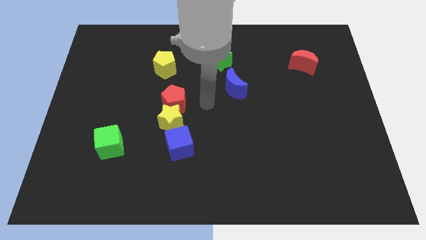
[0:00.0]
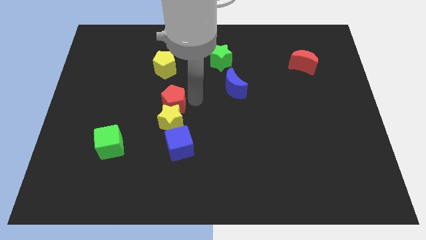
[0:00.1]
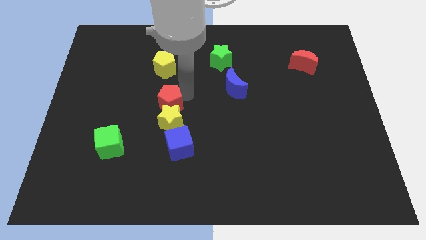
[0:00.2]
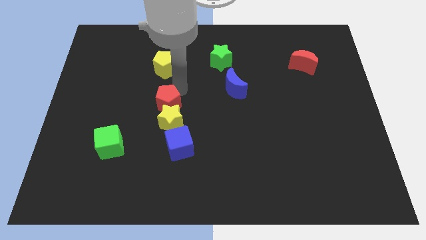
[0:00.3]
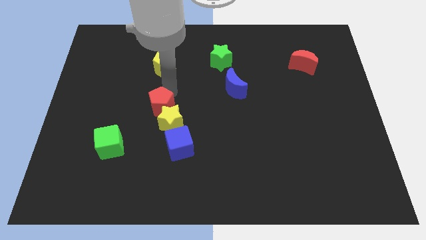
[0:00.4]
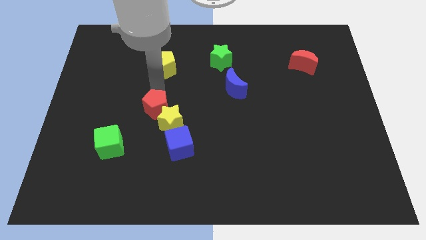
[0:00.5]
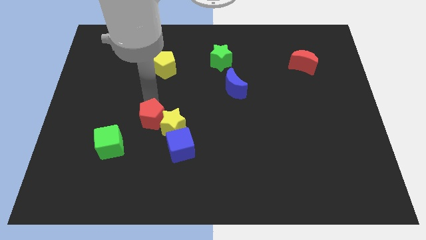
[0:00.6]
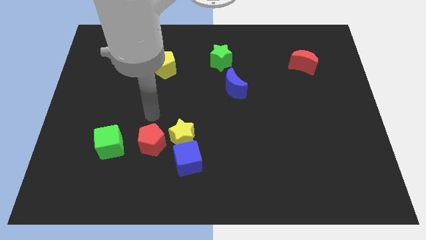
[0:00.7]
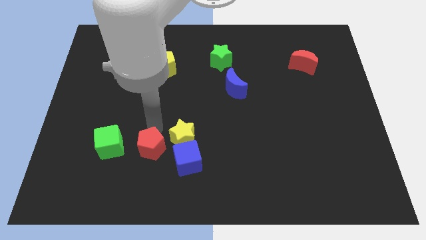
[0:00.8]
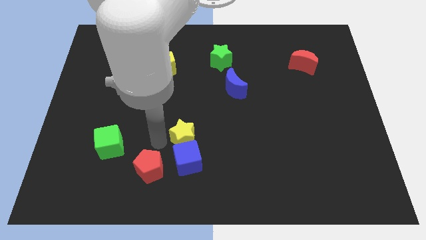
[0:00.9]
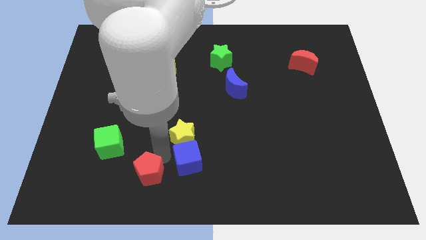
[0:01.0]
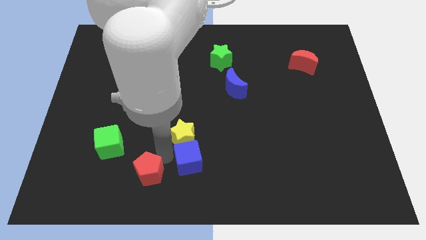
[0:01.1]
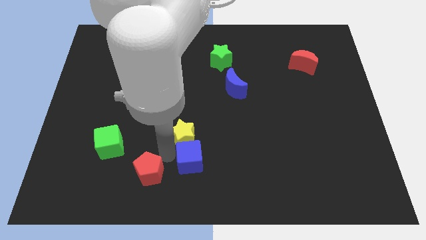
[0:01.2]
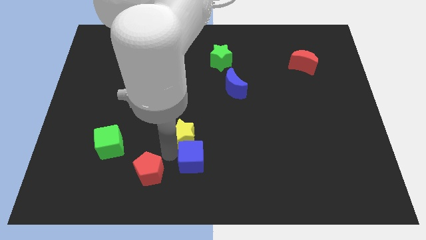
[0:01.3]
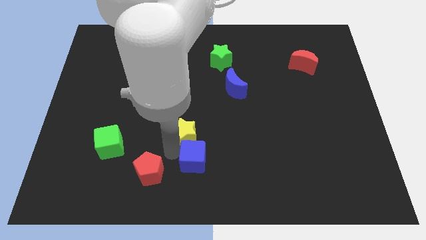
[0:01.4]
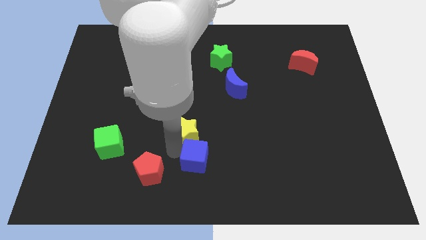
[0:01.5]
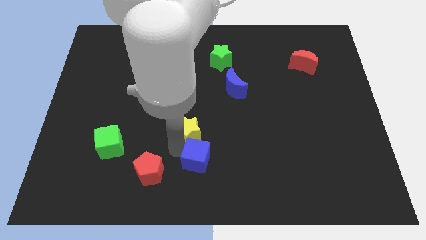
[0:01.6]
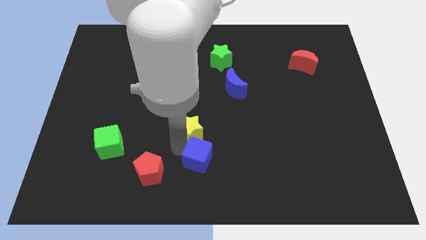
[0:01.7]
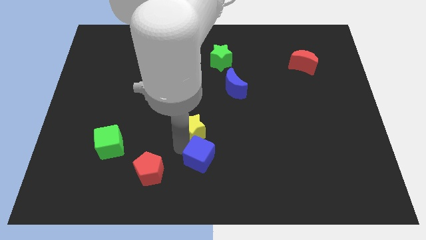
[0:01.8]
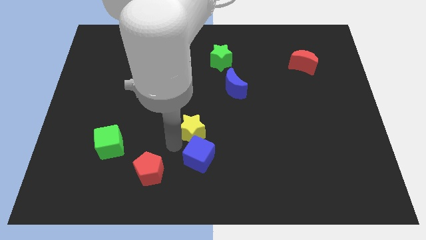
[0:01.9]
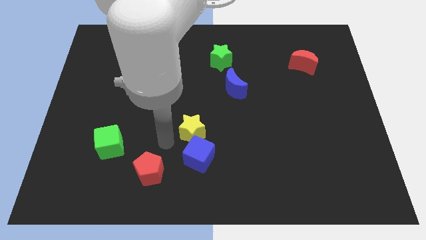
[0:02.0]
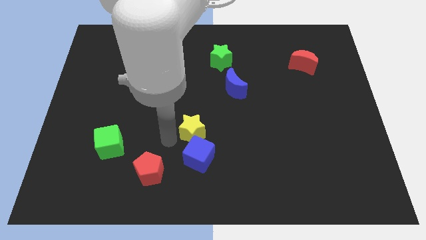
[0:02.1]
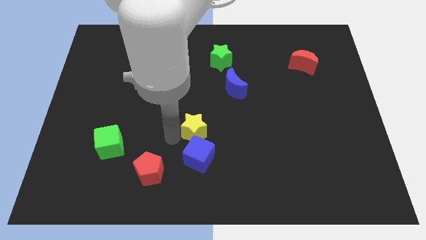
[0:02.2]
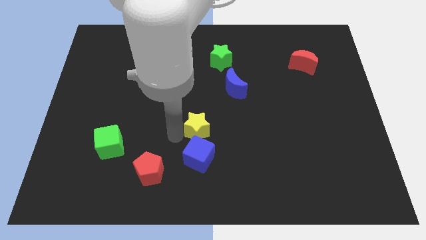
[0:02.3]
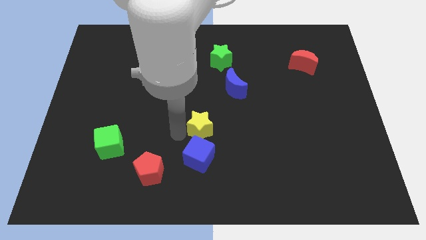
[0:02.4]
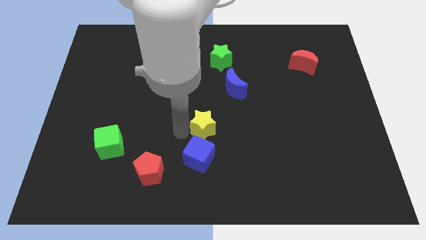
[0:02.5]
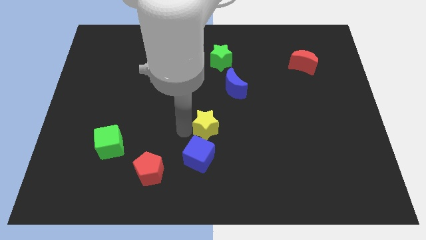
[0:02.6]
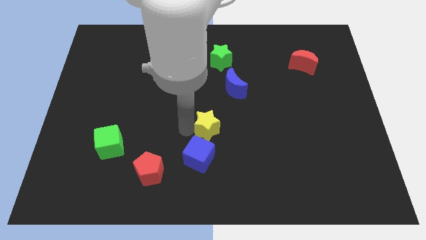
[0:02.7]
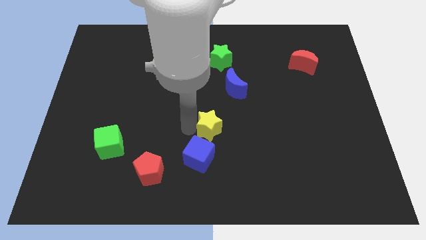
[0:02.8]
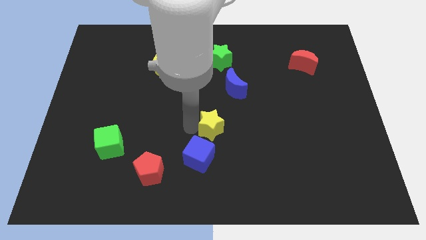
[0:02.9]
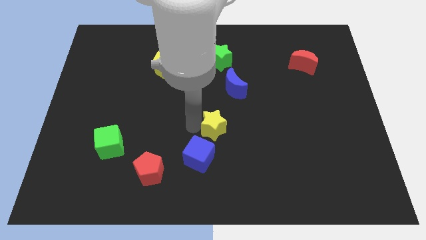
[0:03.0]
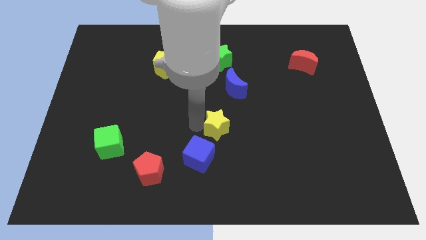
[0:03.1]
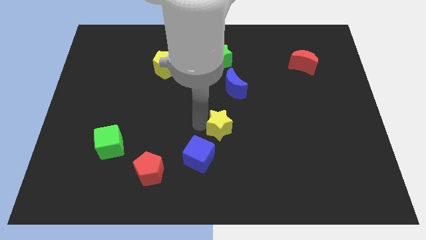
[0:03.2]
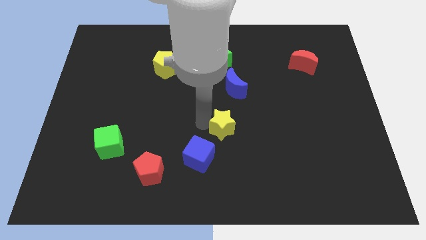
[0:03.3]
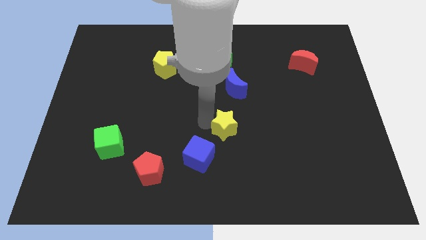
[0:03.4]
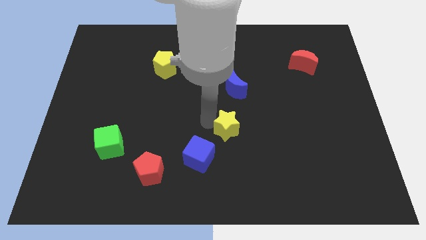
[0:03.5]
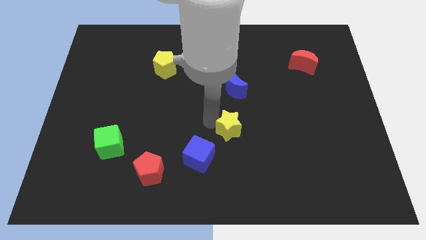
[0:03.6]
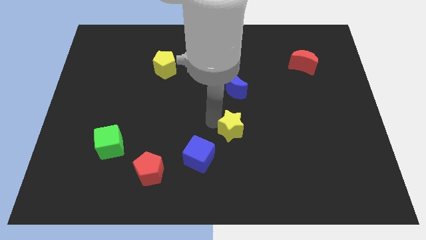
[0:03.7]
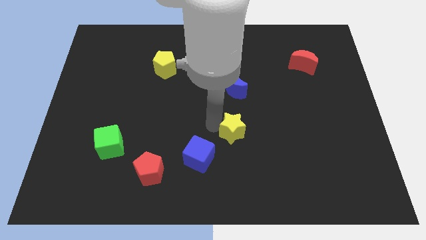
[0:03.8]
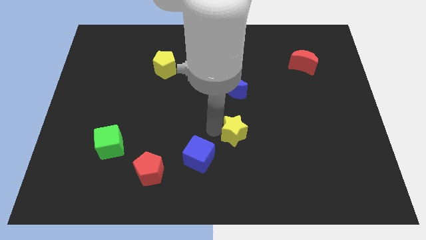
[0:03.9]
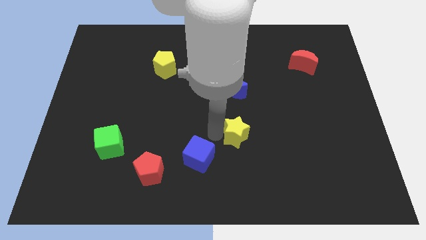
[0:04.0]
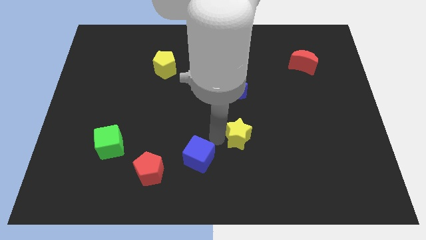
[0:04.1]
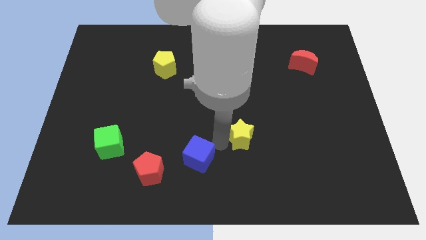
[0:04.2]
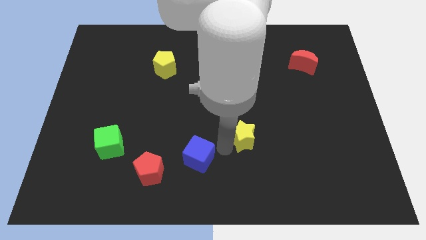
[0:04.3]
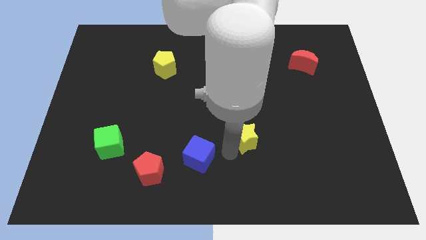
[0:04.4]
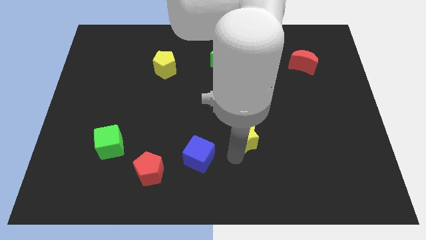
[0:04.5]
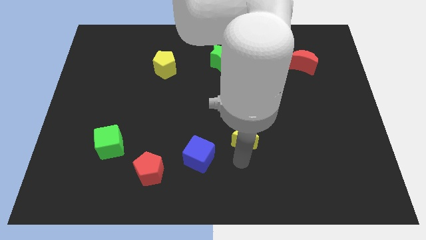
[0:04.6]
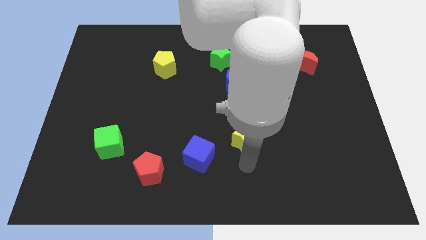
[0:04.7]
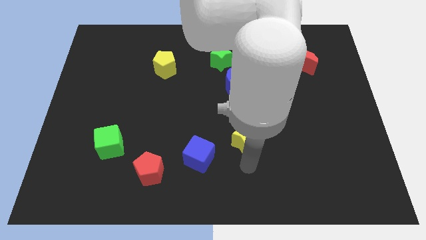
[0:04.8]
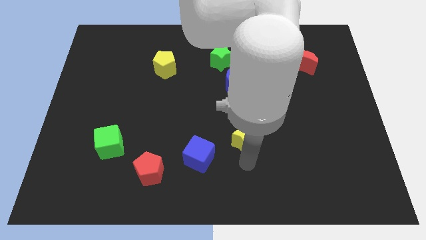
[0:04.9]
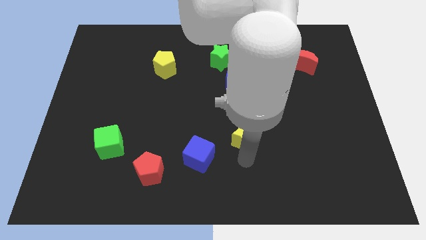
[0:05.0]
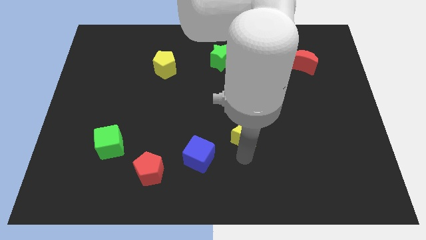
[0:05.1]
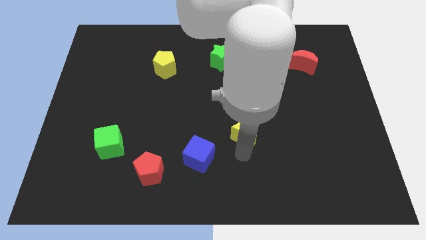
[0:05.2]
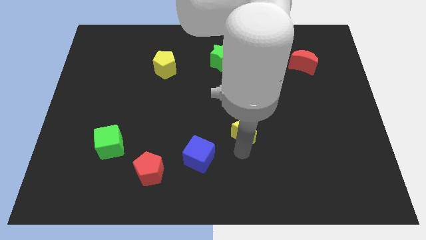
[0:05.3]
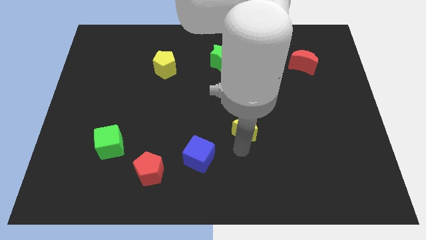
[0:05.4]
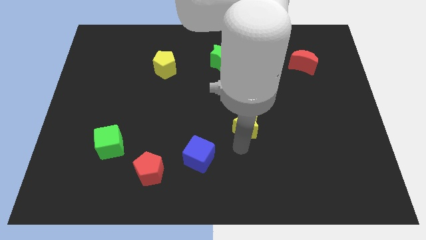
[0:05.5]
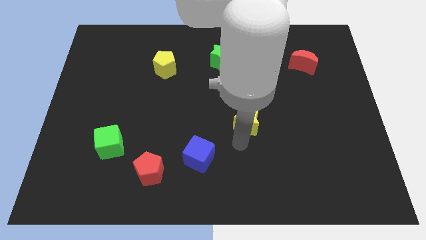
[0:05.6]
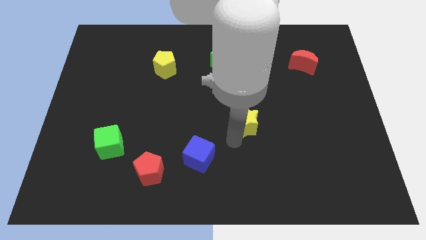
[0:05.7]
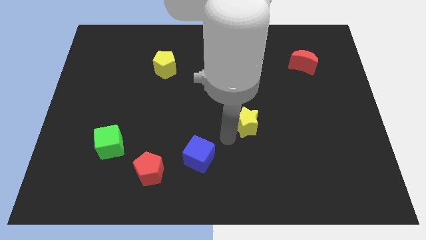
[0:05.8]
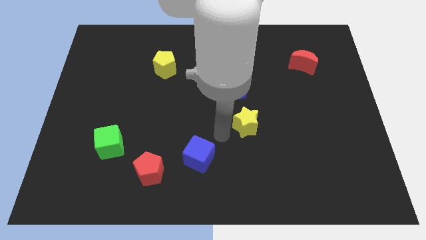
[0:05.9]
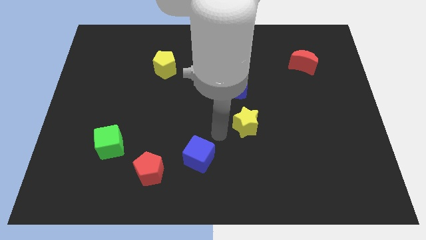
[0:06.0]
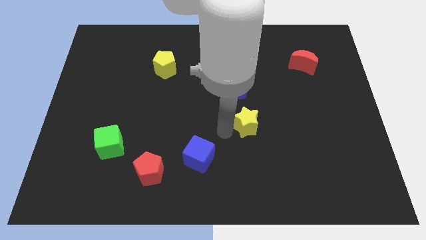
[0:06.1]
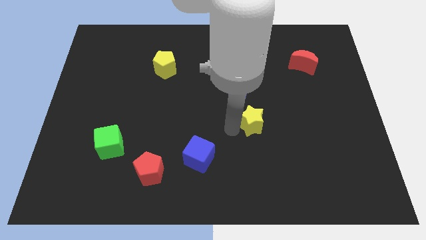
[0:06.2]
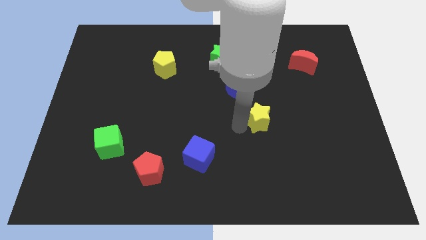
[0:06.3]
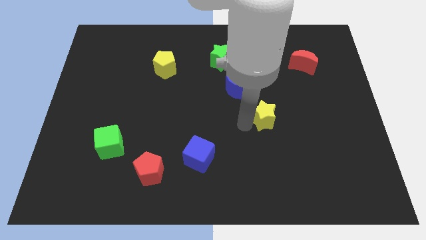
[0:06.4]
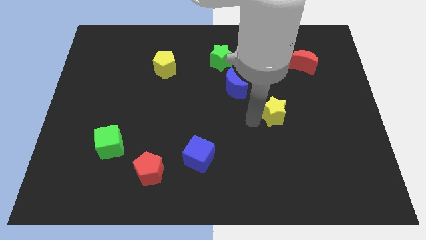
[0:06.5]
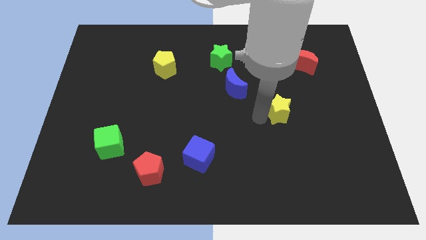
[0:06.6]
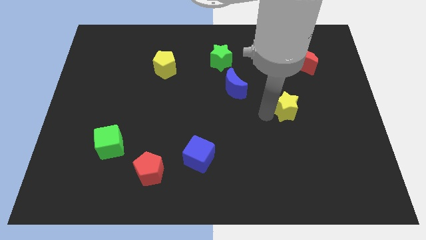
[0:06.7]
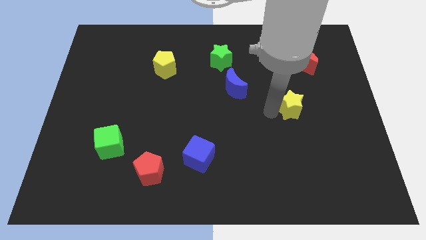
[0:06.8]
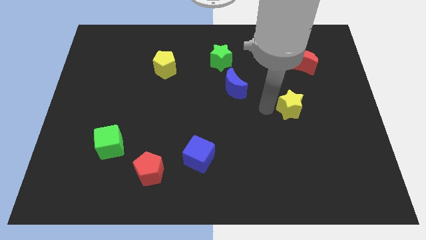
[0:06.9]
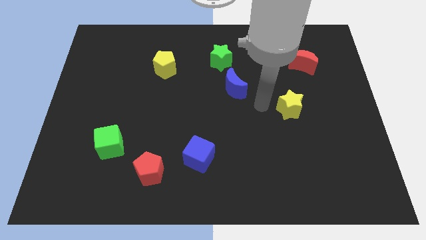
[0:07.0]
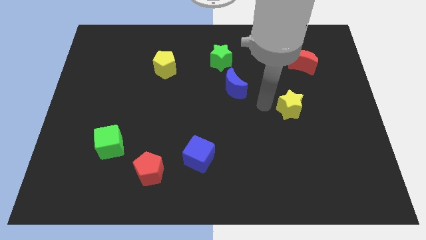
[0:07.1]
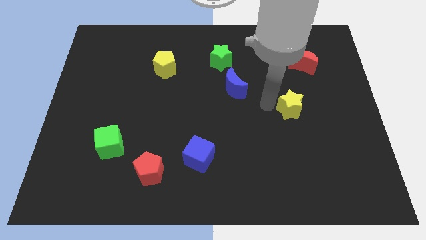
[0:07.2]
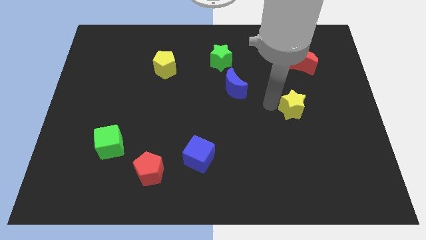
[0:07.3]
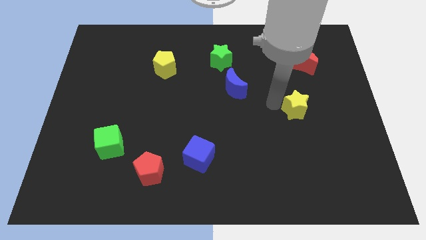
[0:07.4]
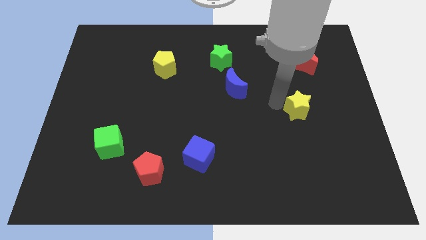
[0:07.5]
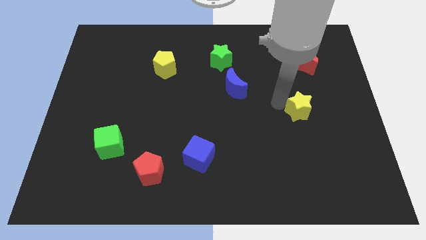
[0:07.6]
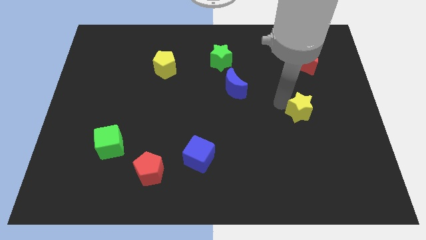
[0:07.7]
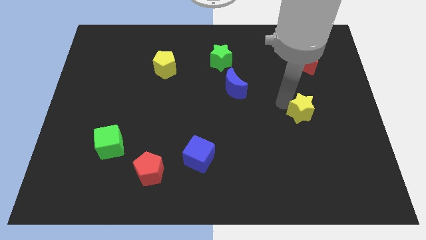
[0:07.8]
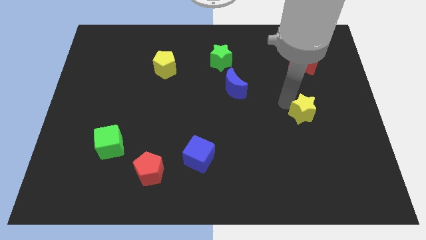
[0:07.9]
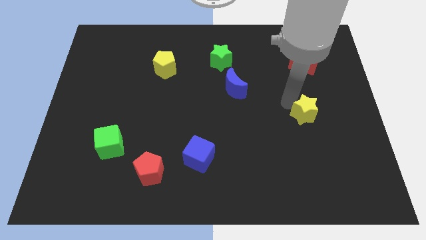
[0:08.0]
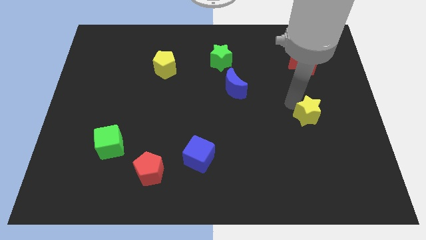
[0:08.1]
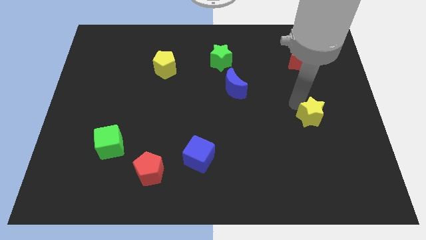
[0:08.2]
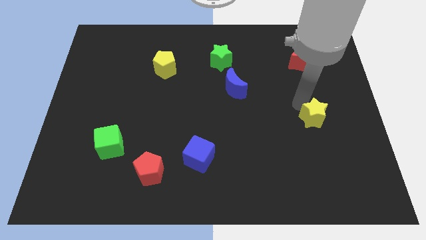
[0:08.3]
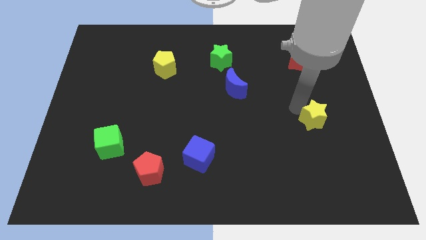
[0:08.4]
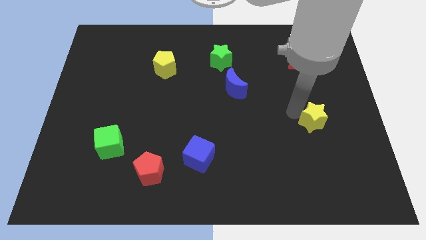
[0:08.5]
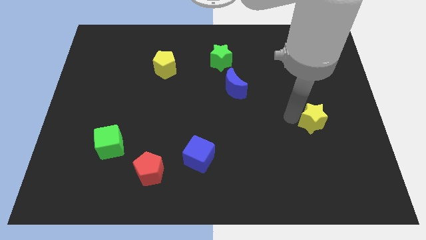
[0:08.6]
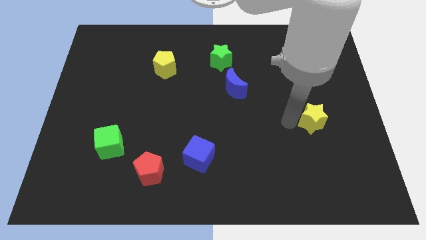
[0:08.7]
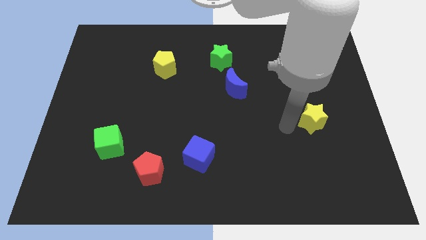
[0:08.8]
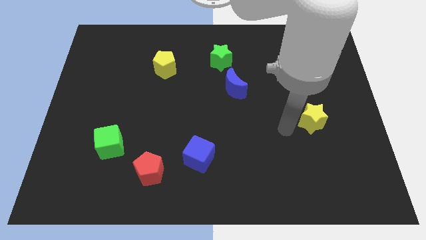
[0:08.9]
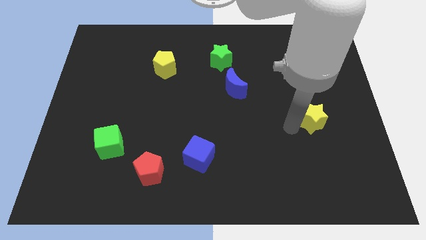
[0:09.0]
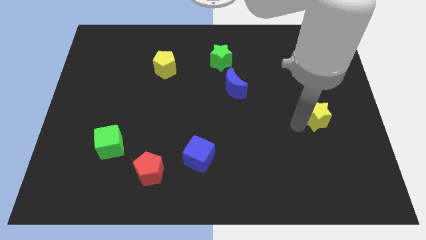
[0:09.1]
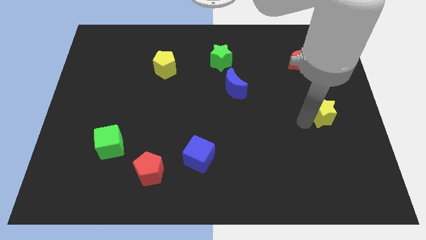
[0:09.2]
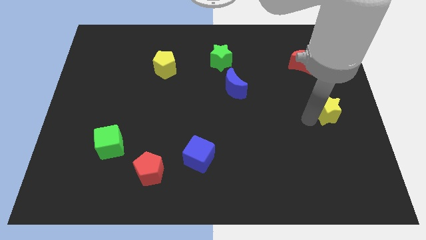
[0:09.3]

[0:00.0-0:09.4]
move the yellow star to the center right
